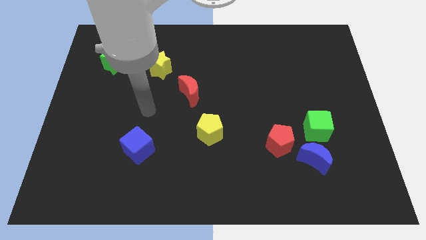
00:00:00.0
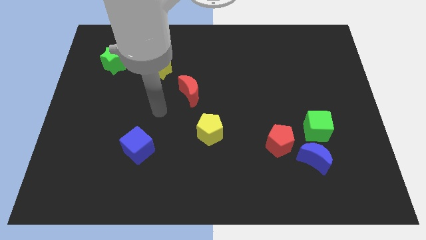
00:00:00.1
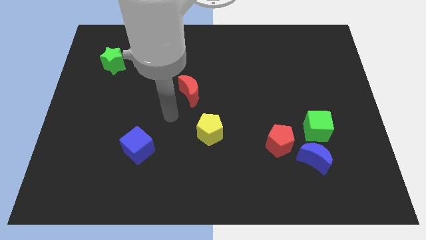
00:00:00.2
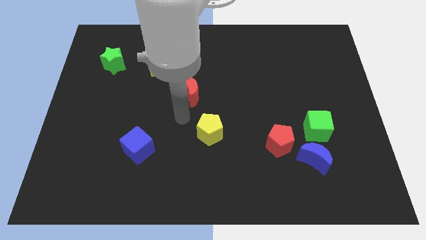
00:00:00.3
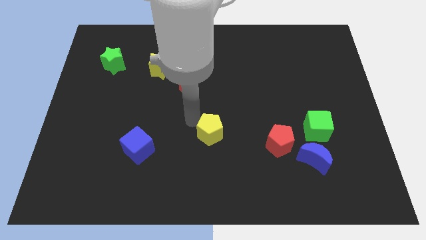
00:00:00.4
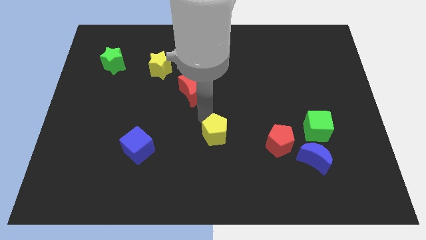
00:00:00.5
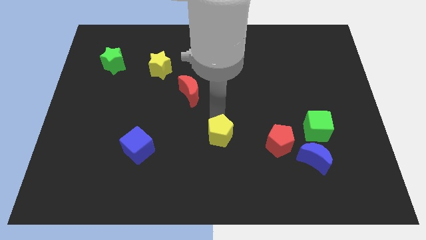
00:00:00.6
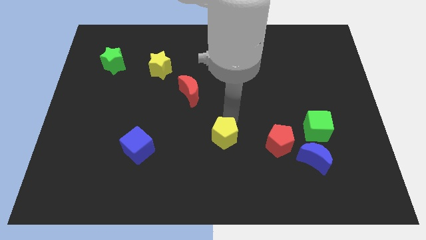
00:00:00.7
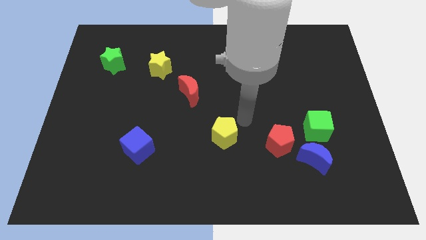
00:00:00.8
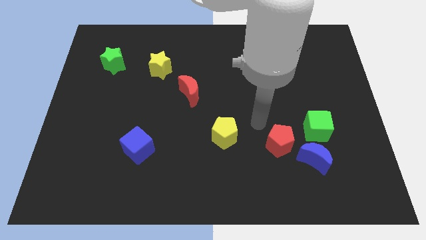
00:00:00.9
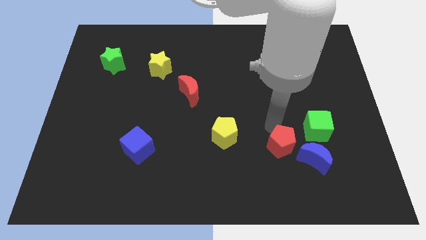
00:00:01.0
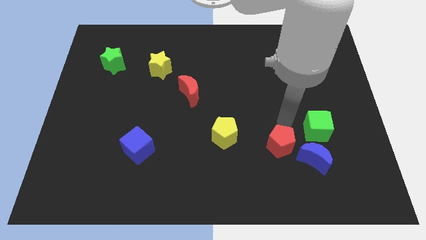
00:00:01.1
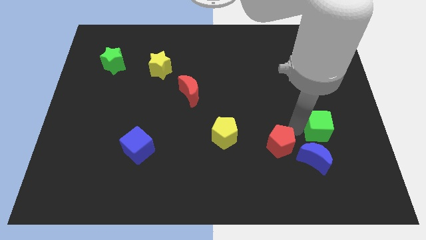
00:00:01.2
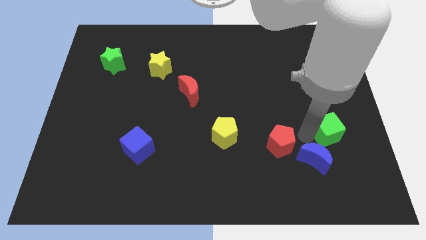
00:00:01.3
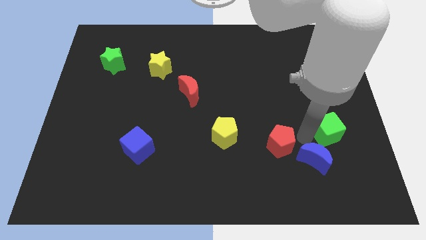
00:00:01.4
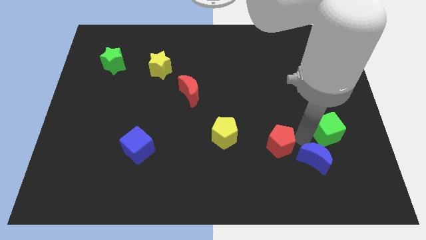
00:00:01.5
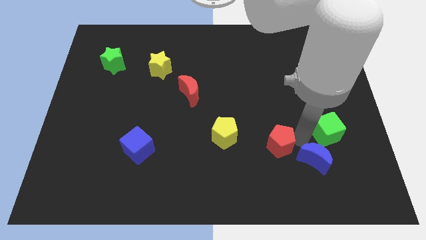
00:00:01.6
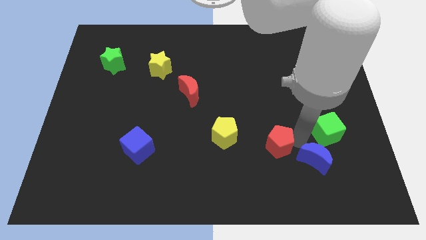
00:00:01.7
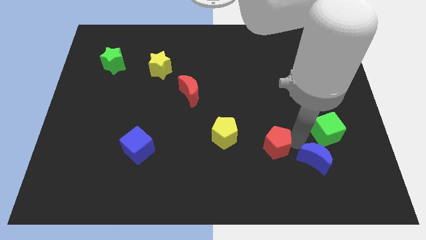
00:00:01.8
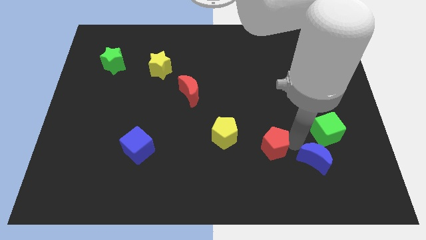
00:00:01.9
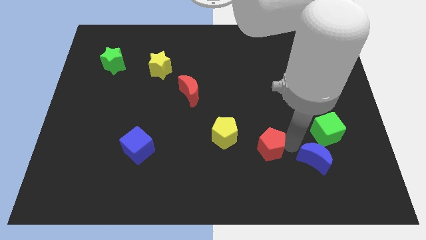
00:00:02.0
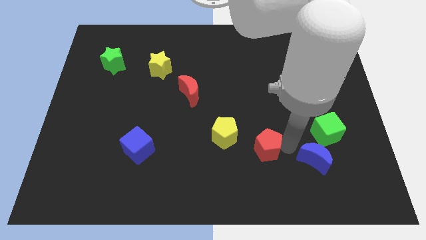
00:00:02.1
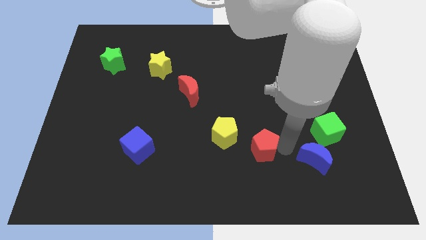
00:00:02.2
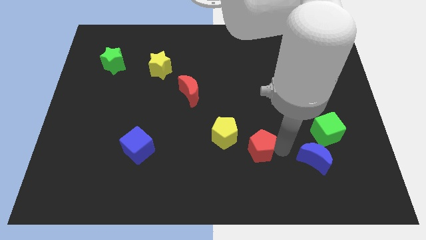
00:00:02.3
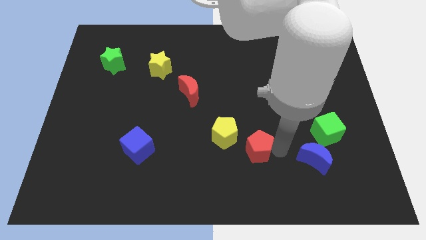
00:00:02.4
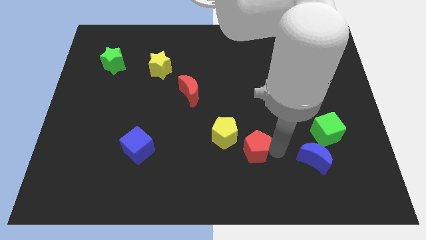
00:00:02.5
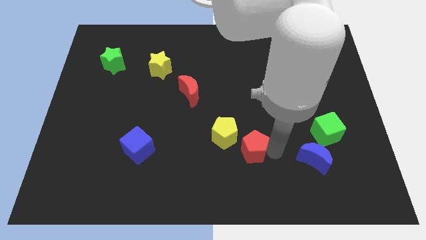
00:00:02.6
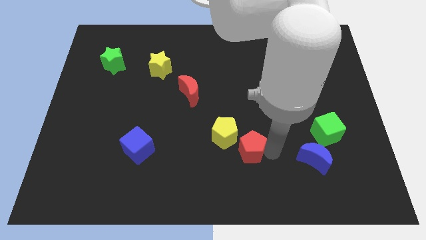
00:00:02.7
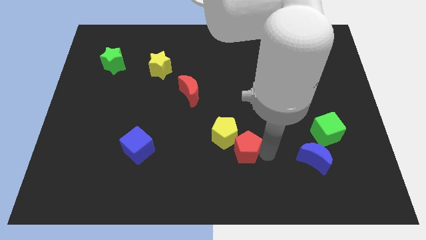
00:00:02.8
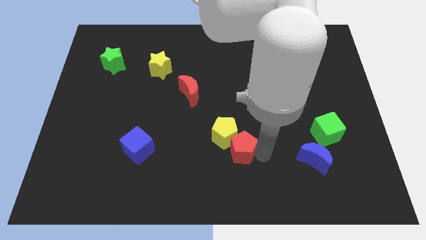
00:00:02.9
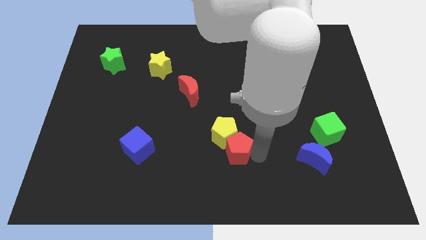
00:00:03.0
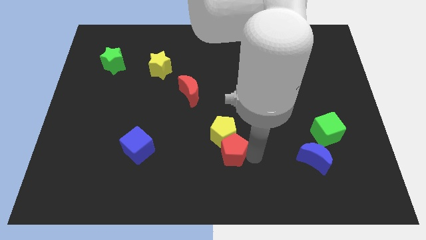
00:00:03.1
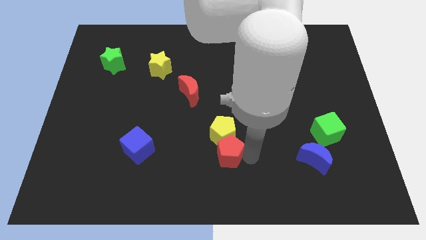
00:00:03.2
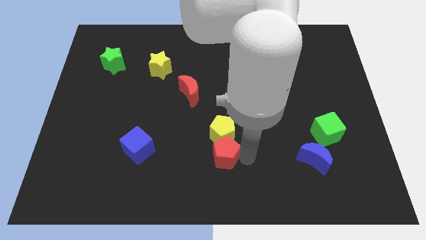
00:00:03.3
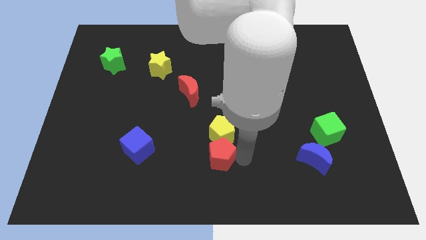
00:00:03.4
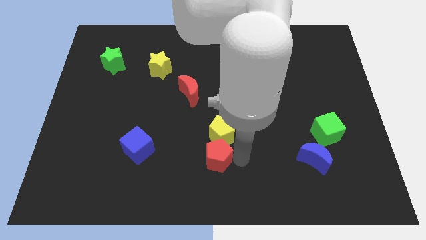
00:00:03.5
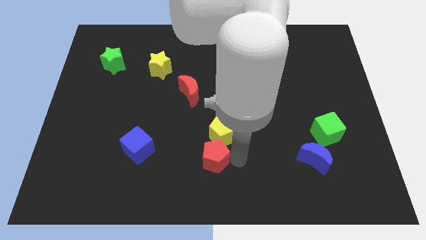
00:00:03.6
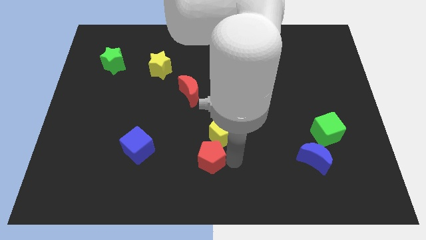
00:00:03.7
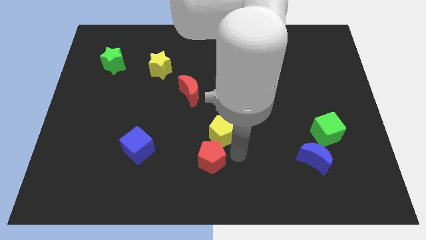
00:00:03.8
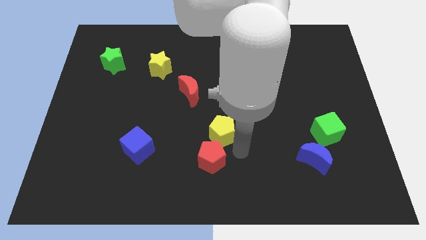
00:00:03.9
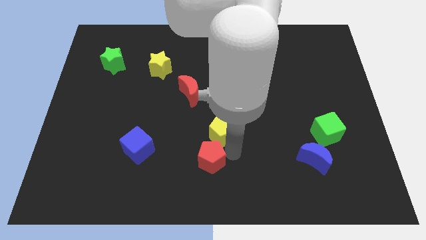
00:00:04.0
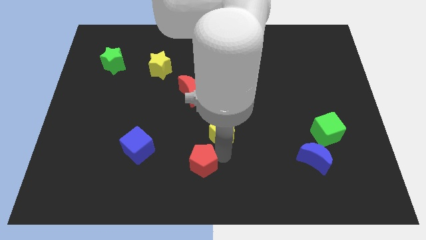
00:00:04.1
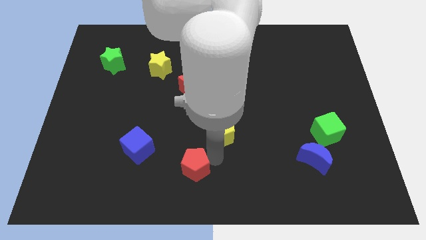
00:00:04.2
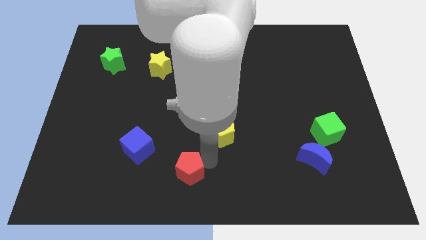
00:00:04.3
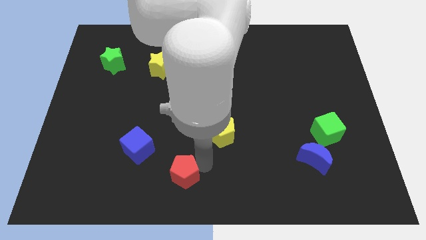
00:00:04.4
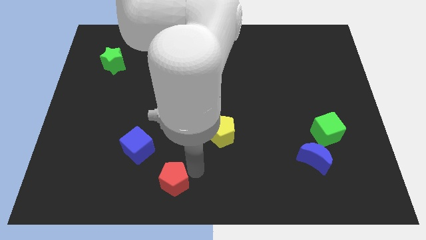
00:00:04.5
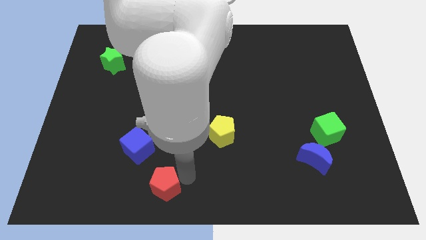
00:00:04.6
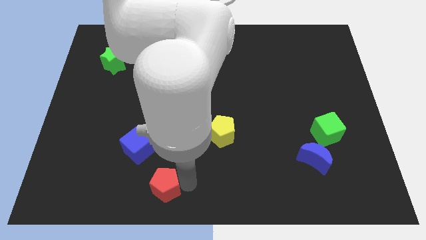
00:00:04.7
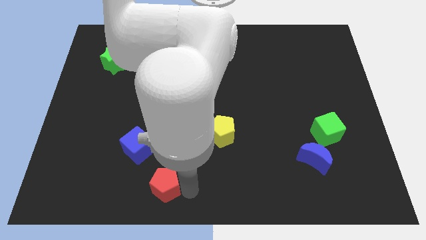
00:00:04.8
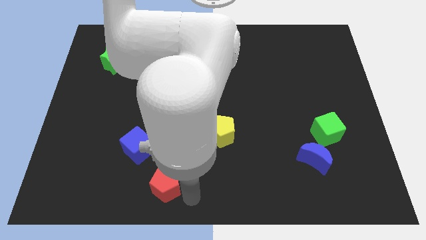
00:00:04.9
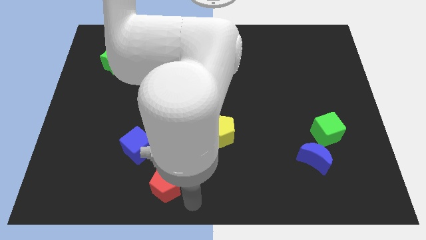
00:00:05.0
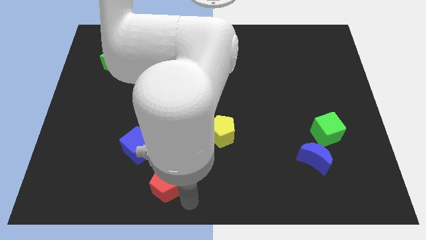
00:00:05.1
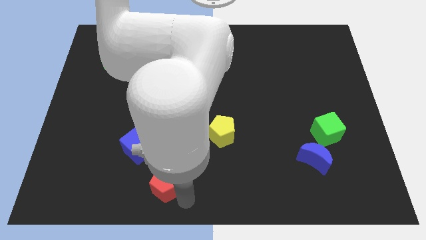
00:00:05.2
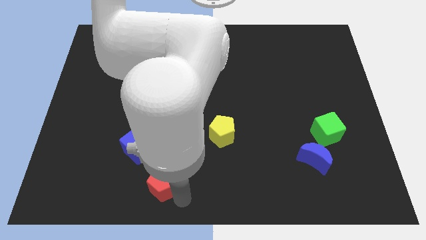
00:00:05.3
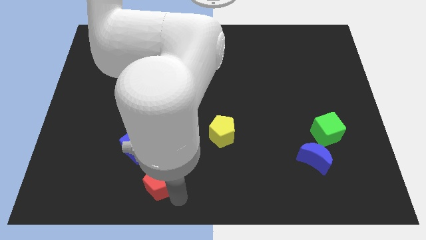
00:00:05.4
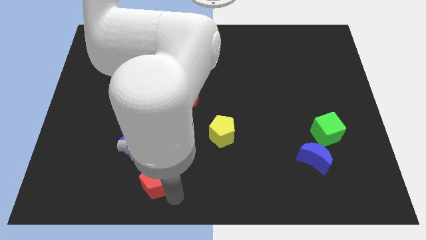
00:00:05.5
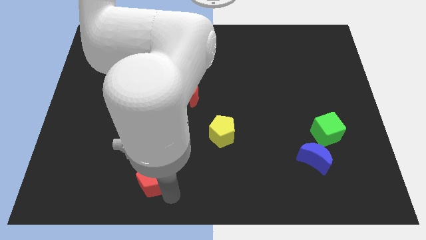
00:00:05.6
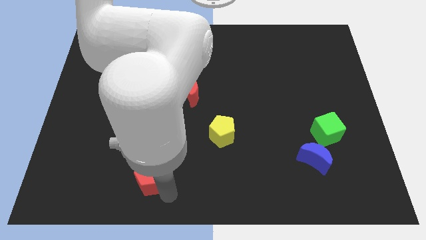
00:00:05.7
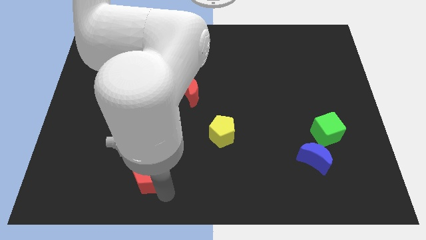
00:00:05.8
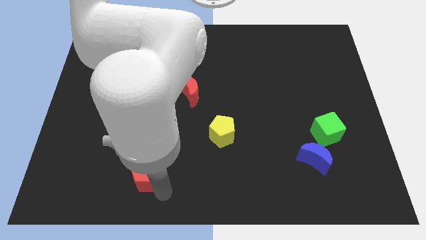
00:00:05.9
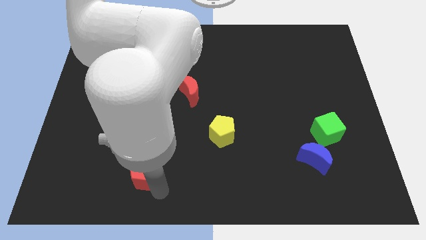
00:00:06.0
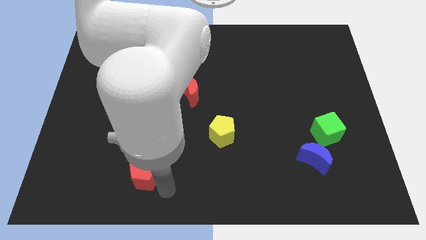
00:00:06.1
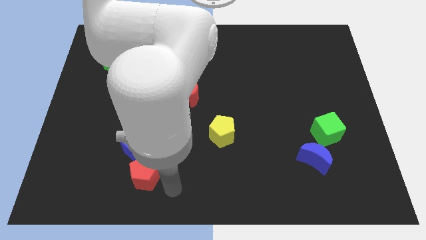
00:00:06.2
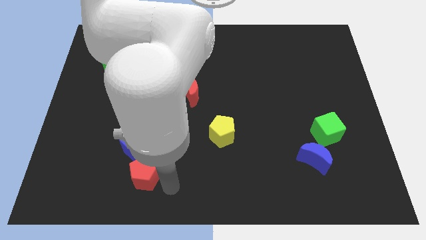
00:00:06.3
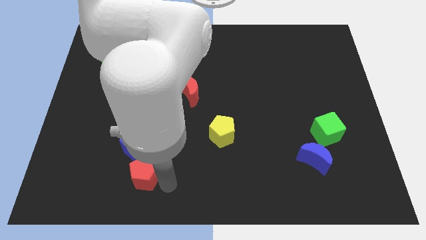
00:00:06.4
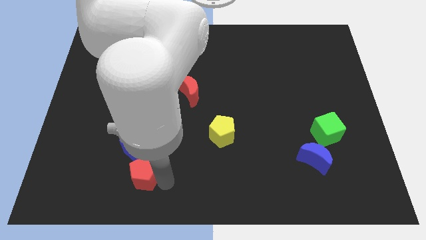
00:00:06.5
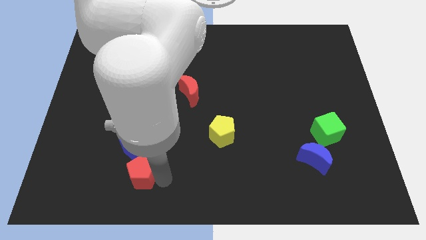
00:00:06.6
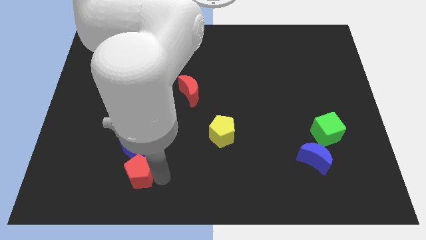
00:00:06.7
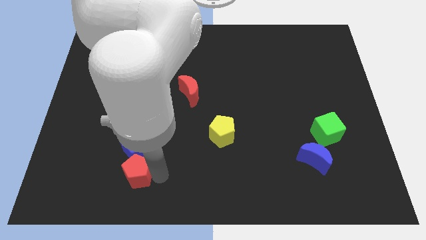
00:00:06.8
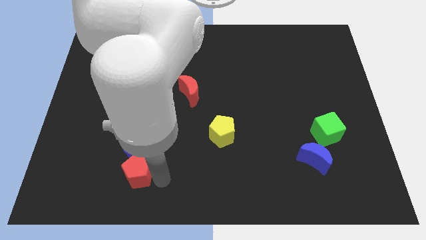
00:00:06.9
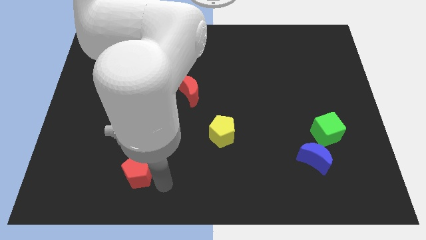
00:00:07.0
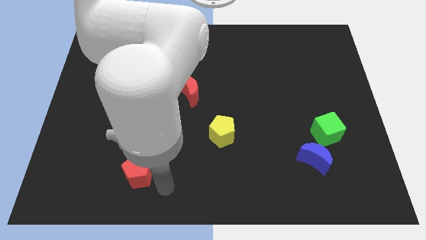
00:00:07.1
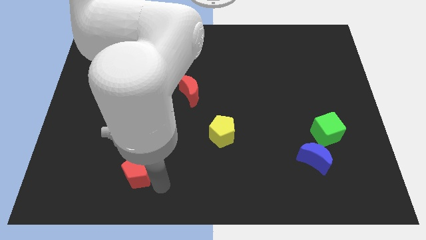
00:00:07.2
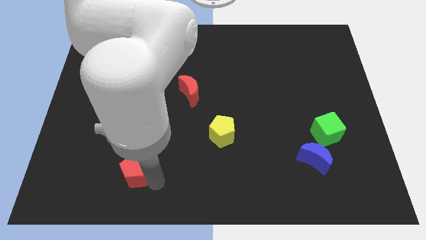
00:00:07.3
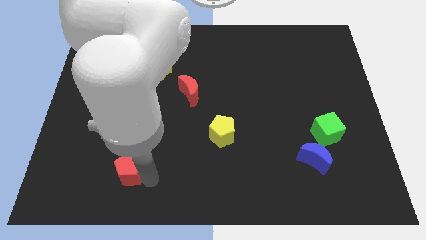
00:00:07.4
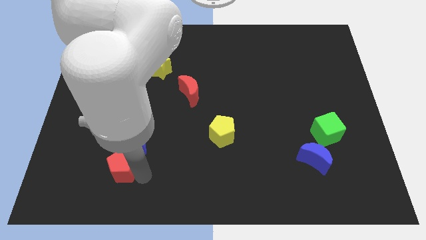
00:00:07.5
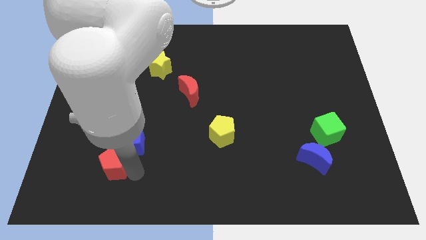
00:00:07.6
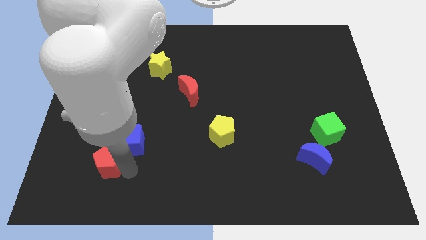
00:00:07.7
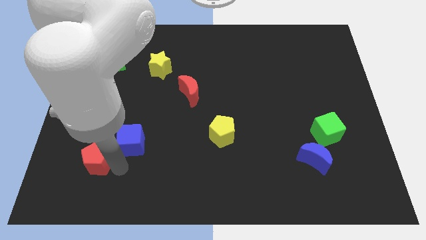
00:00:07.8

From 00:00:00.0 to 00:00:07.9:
move the red pentagon to the left of the blue cube
